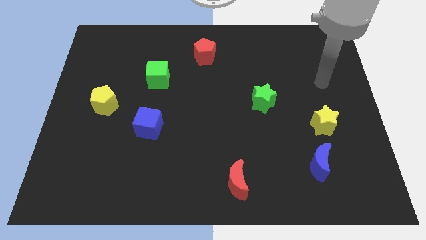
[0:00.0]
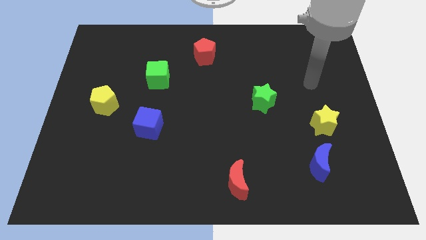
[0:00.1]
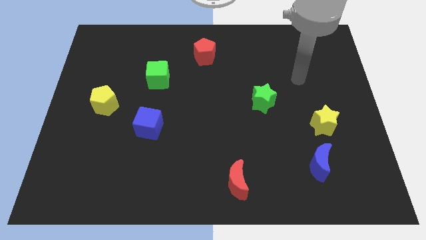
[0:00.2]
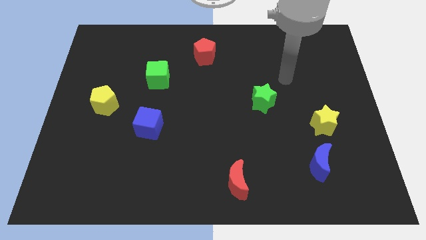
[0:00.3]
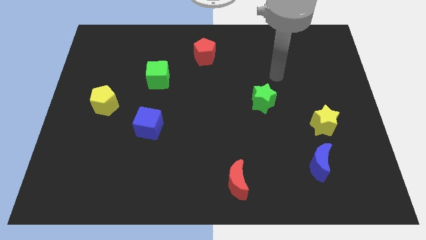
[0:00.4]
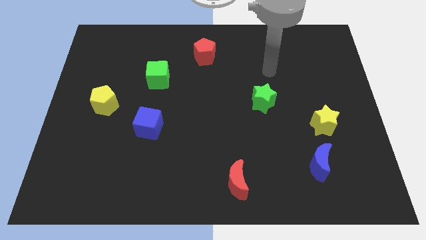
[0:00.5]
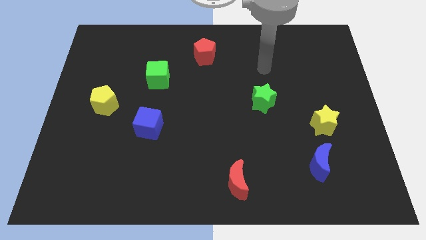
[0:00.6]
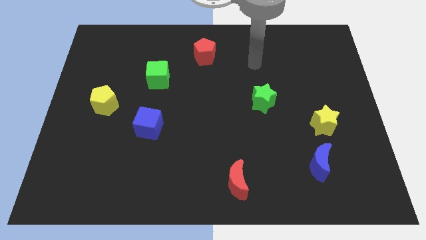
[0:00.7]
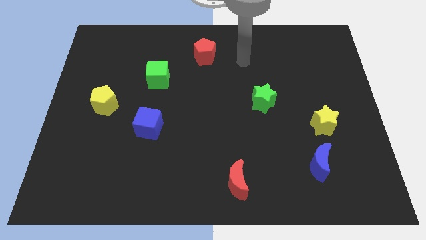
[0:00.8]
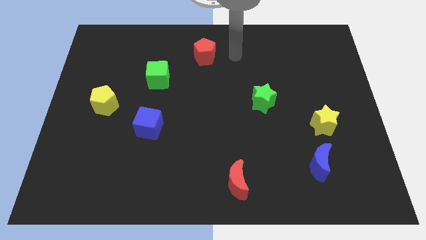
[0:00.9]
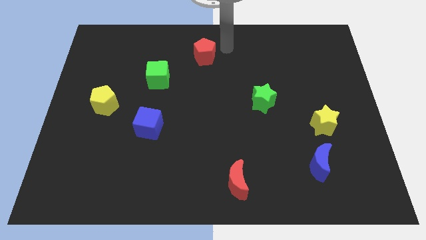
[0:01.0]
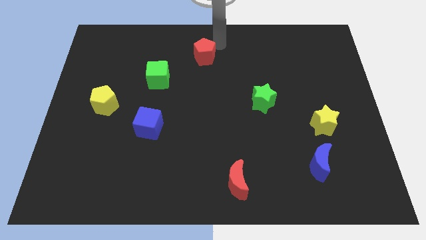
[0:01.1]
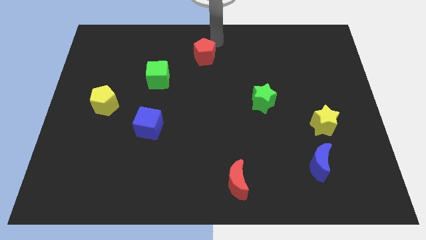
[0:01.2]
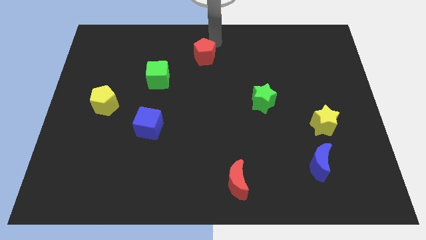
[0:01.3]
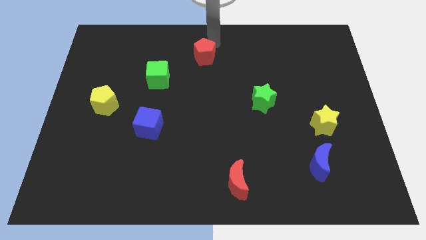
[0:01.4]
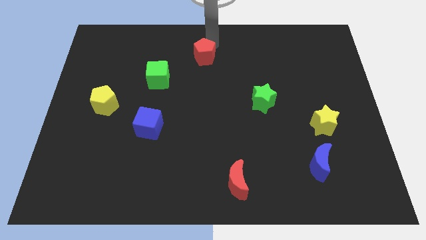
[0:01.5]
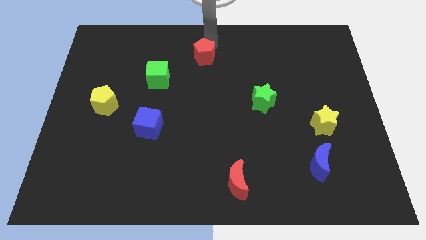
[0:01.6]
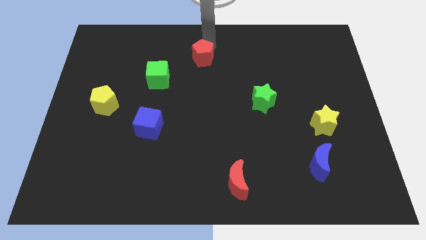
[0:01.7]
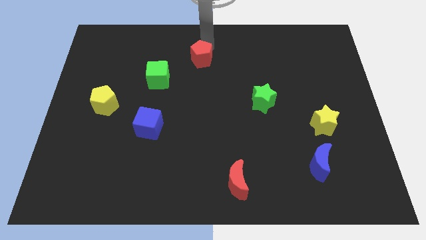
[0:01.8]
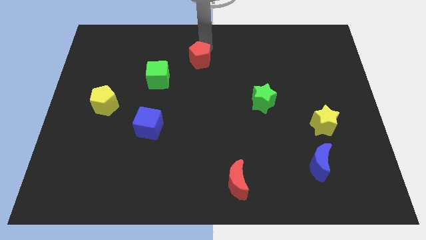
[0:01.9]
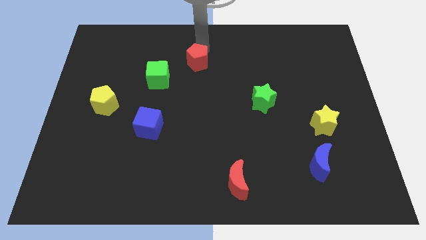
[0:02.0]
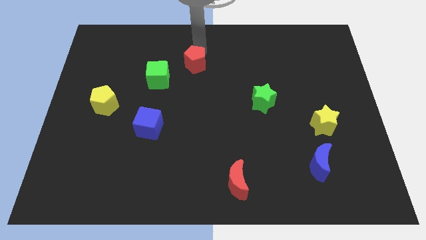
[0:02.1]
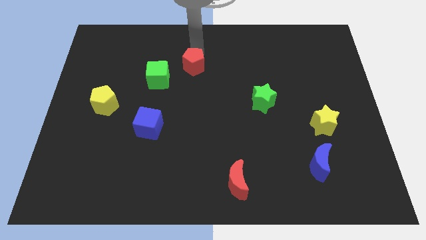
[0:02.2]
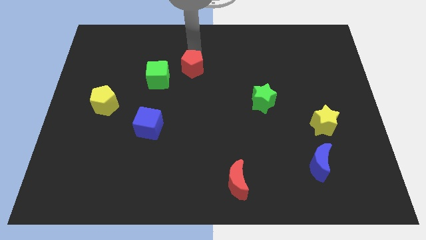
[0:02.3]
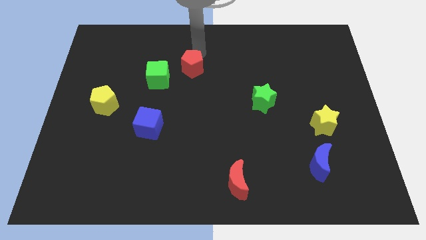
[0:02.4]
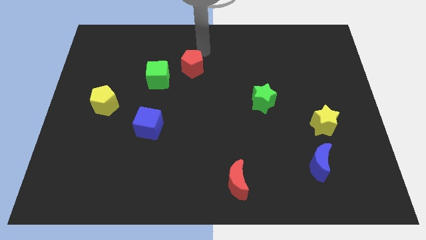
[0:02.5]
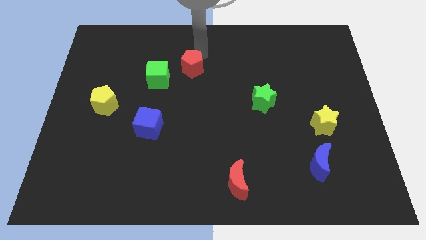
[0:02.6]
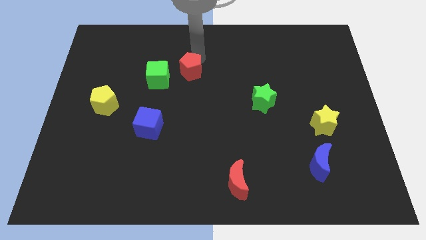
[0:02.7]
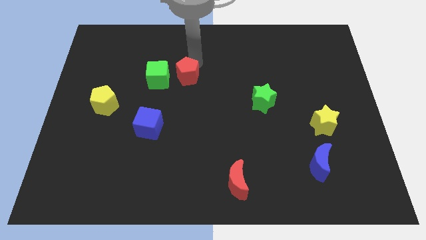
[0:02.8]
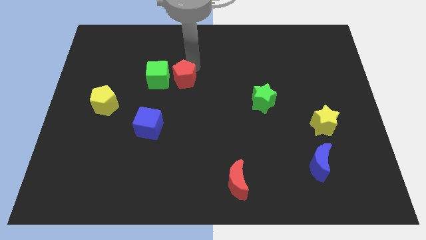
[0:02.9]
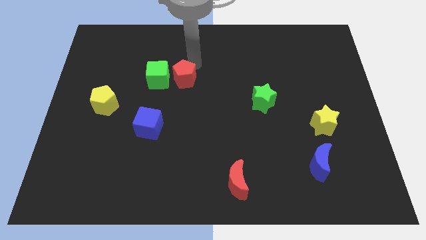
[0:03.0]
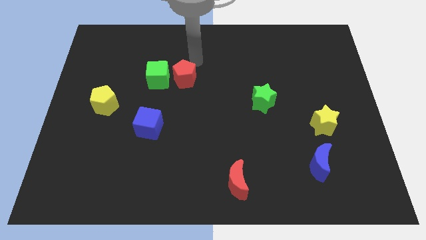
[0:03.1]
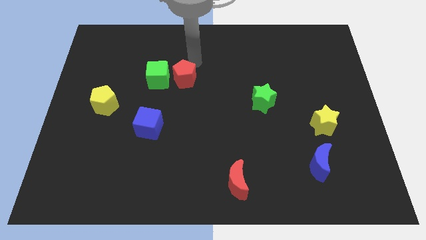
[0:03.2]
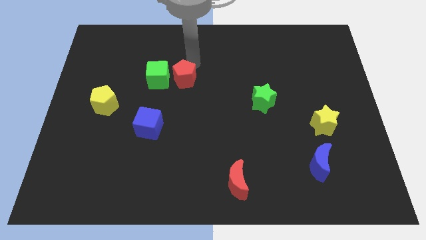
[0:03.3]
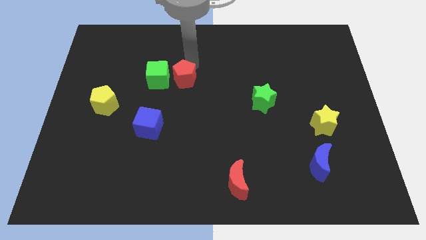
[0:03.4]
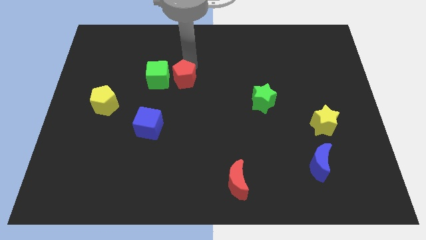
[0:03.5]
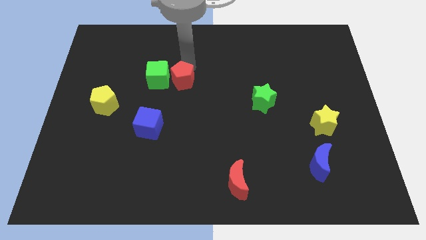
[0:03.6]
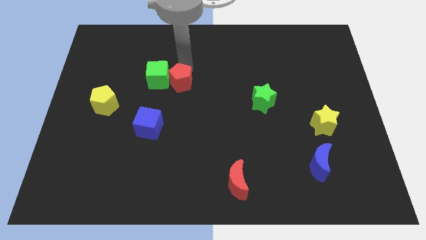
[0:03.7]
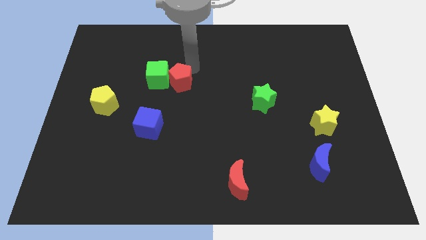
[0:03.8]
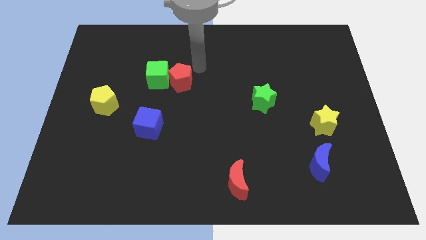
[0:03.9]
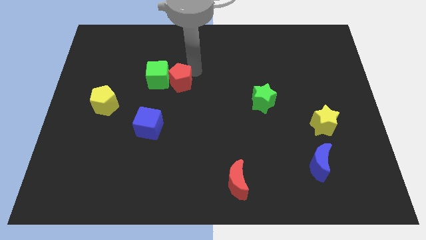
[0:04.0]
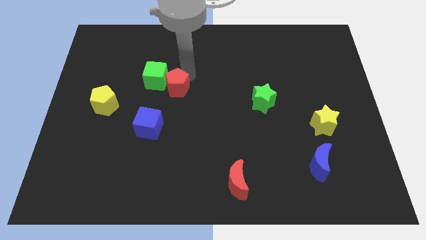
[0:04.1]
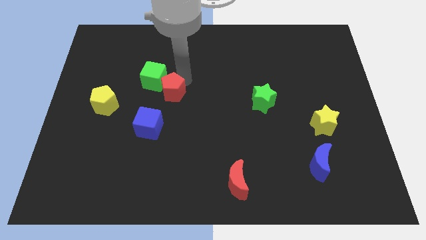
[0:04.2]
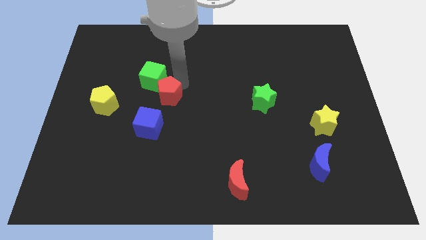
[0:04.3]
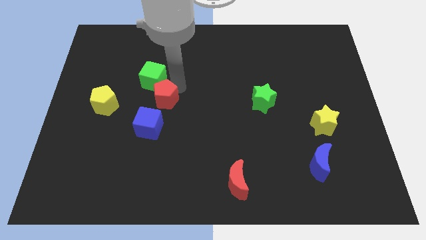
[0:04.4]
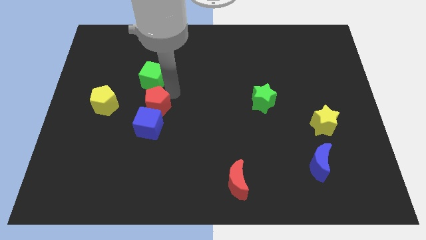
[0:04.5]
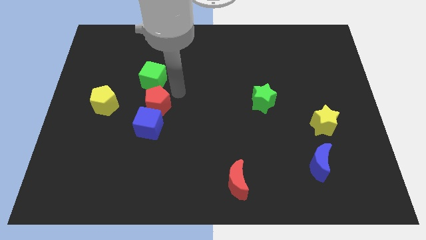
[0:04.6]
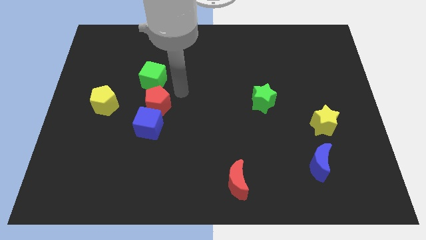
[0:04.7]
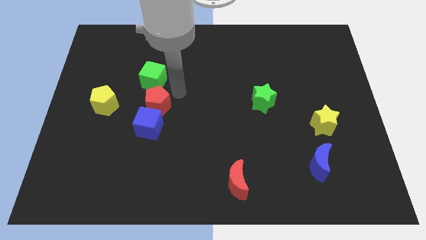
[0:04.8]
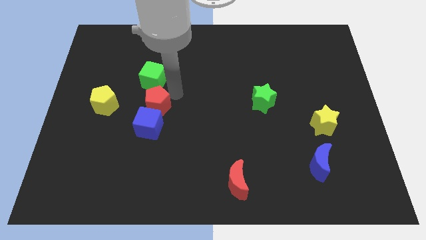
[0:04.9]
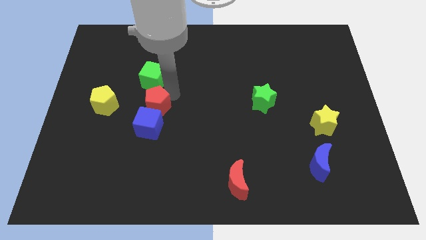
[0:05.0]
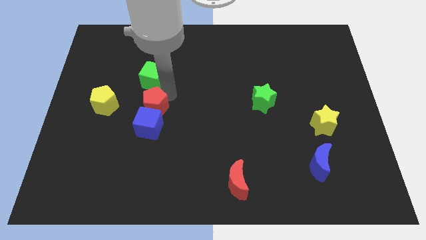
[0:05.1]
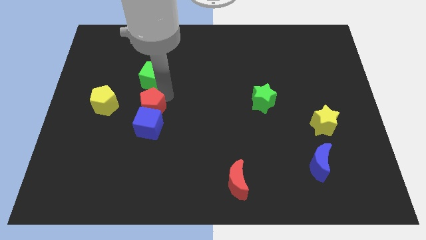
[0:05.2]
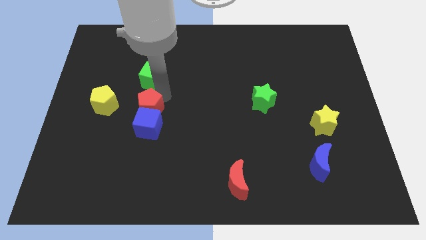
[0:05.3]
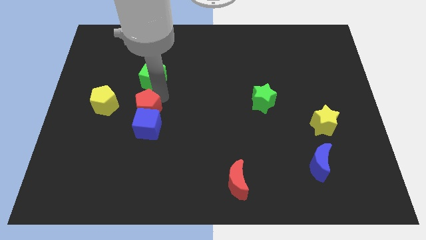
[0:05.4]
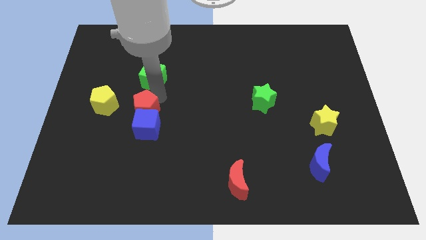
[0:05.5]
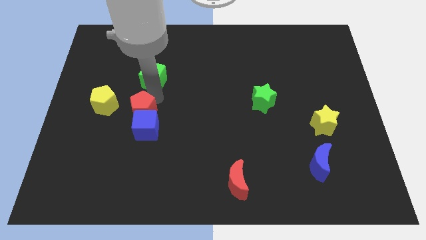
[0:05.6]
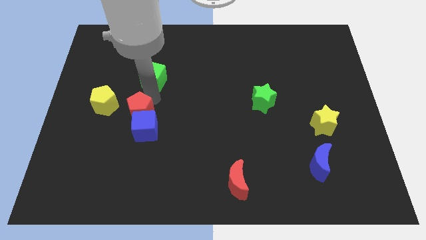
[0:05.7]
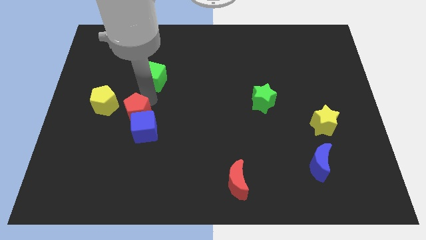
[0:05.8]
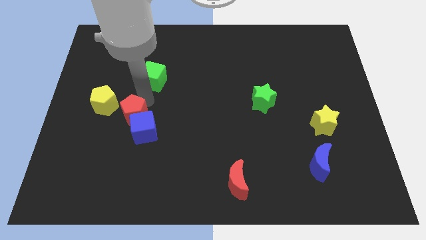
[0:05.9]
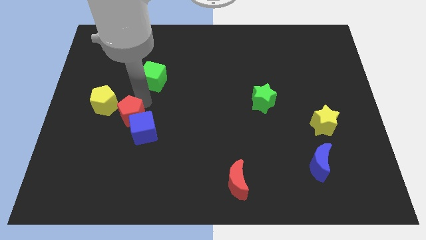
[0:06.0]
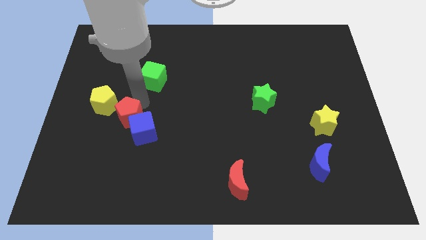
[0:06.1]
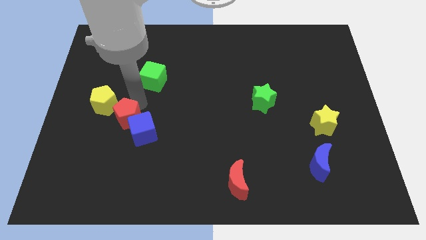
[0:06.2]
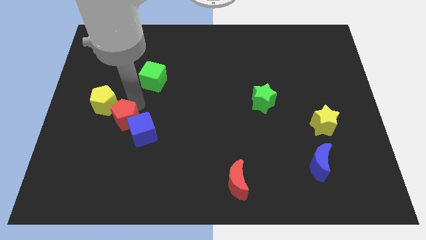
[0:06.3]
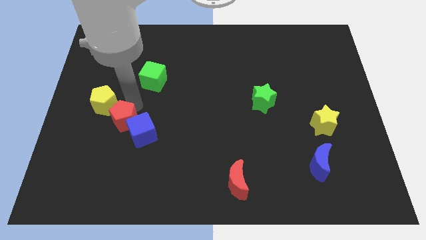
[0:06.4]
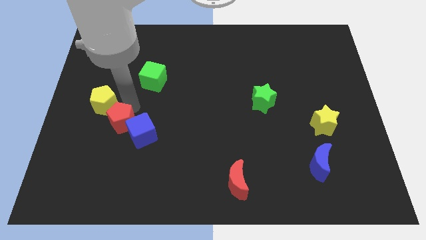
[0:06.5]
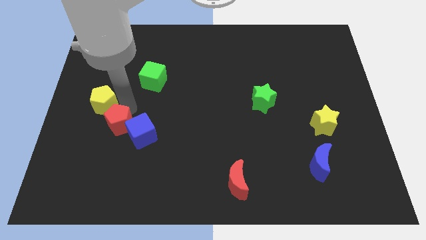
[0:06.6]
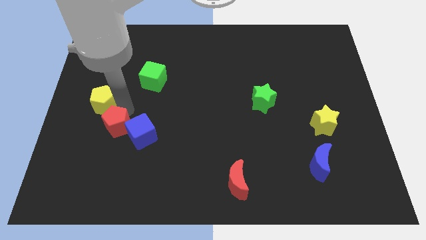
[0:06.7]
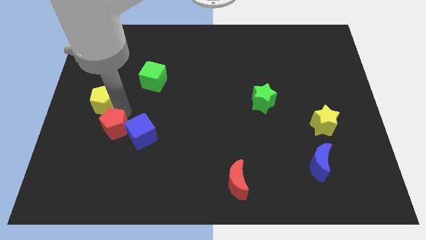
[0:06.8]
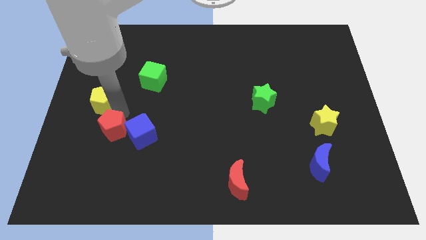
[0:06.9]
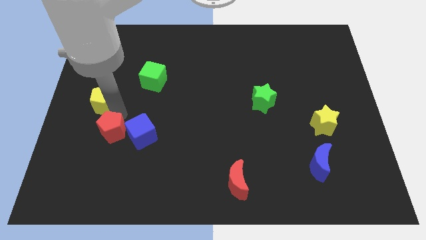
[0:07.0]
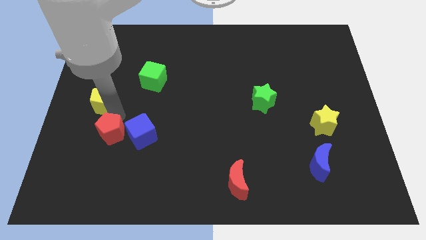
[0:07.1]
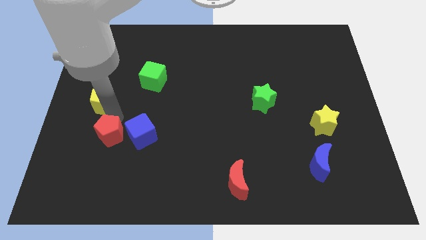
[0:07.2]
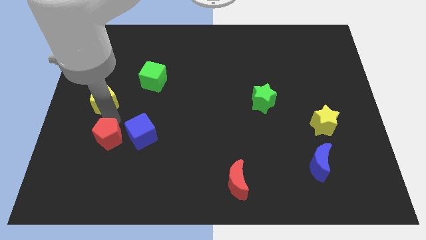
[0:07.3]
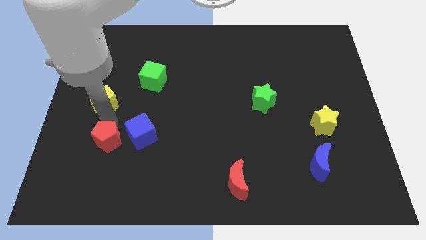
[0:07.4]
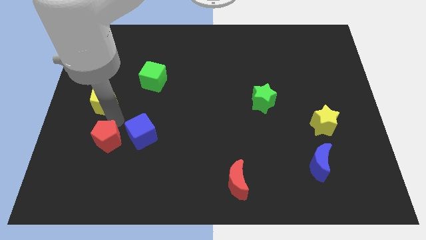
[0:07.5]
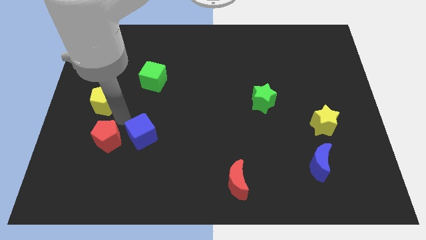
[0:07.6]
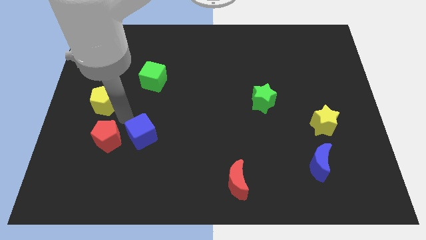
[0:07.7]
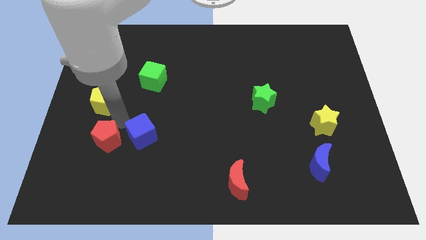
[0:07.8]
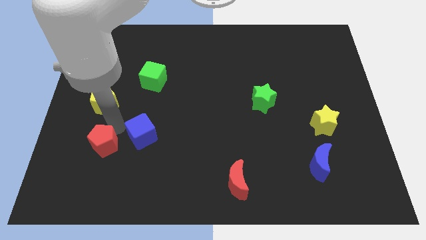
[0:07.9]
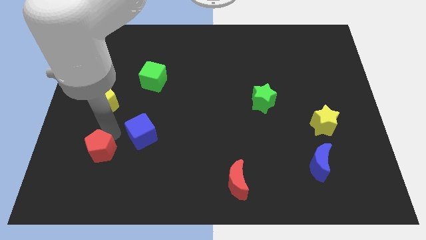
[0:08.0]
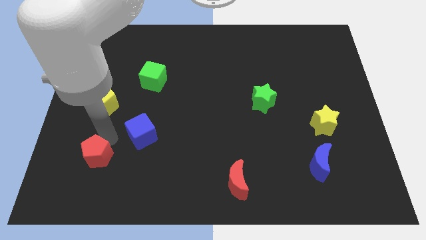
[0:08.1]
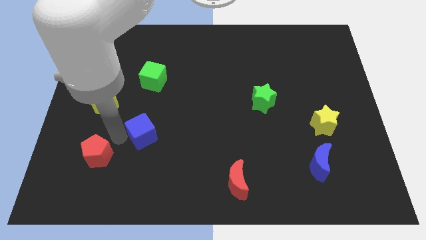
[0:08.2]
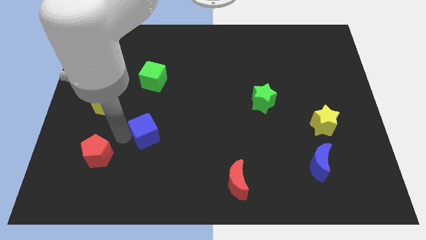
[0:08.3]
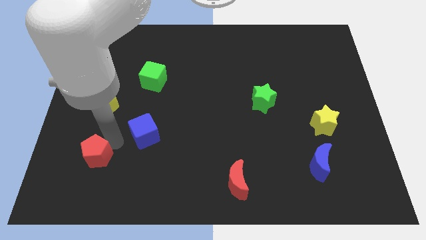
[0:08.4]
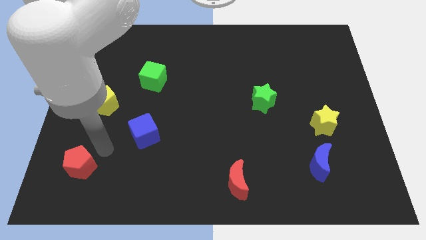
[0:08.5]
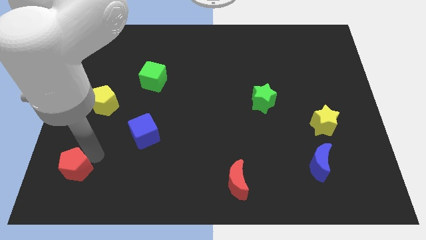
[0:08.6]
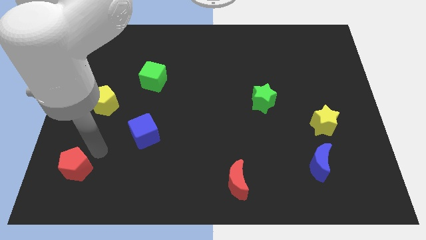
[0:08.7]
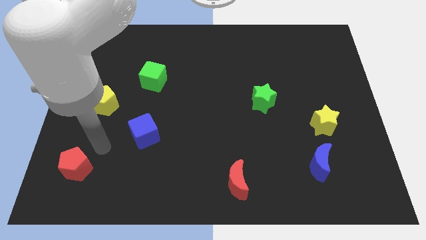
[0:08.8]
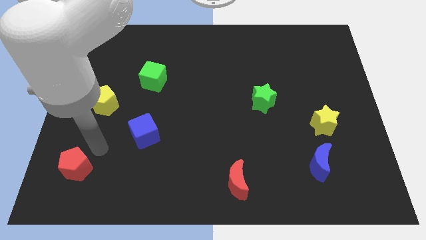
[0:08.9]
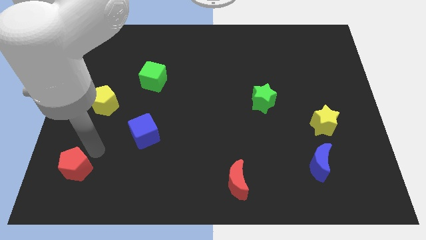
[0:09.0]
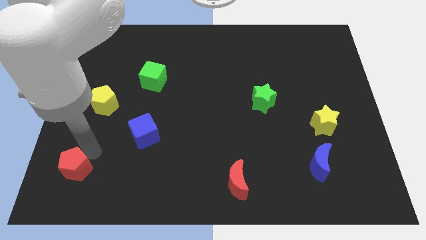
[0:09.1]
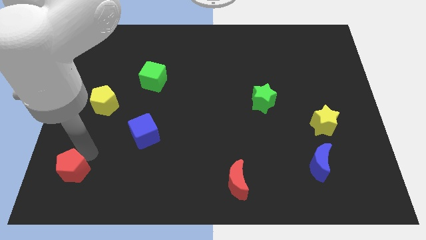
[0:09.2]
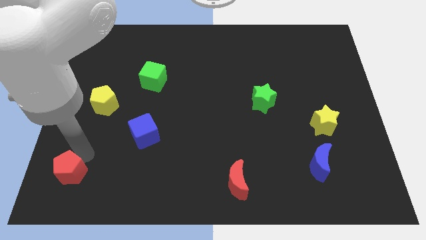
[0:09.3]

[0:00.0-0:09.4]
put the red pentagon to the bottom left corner
